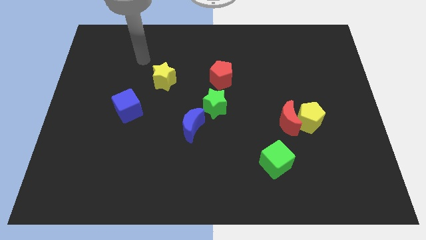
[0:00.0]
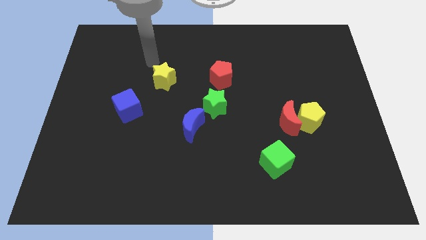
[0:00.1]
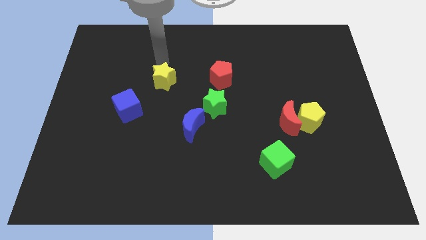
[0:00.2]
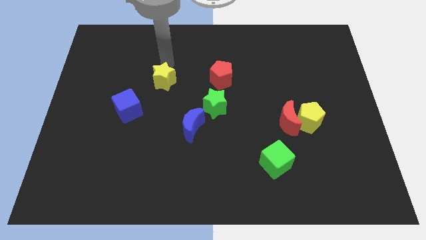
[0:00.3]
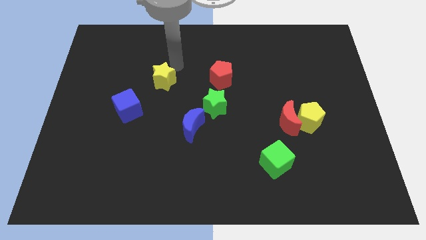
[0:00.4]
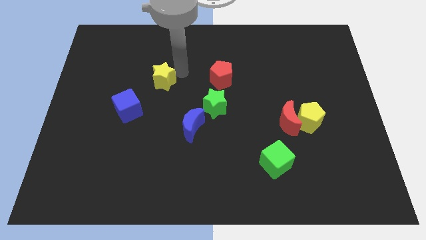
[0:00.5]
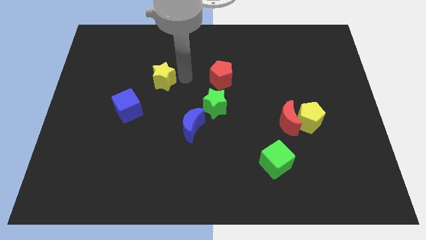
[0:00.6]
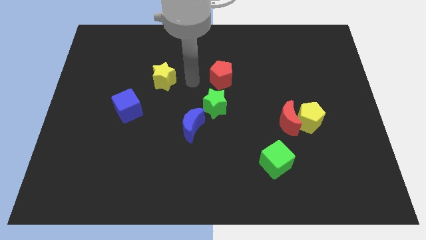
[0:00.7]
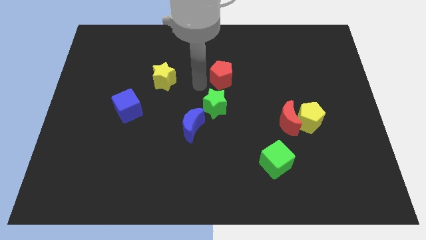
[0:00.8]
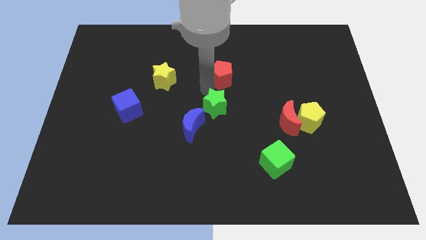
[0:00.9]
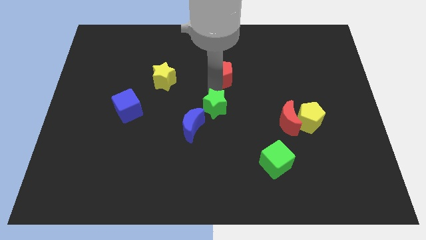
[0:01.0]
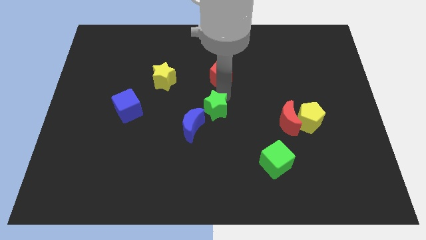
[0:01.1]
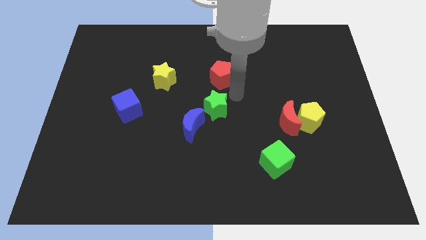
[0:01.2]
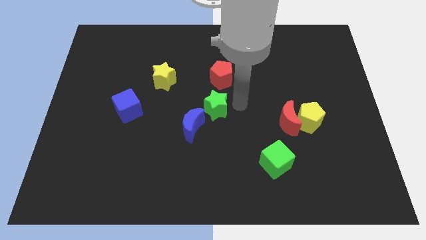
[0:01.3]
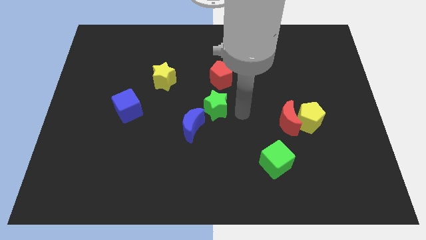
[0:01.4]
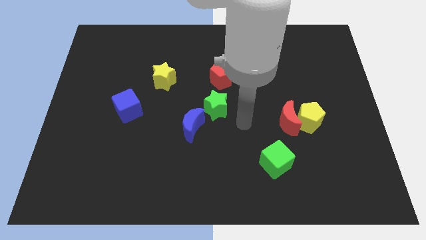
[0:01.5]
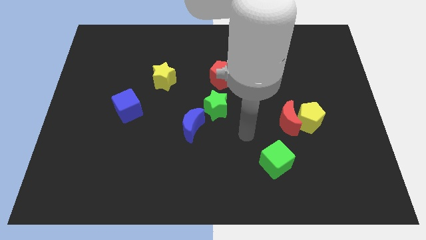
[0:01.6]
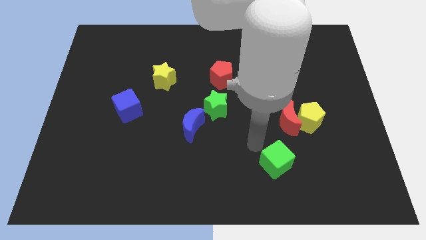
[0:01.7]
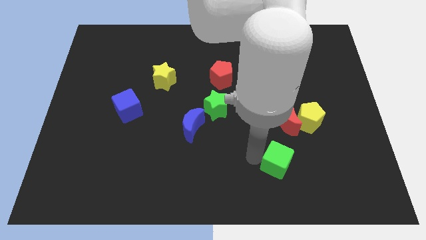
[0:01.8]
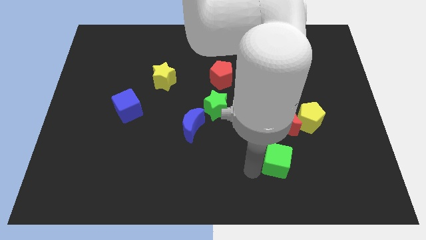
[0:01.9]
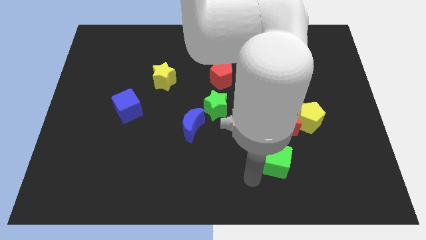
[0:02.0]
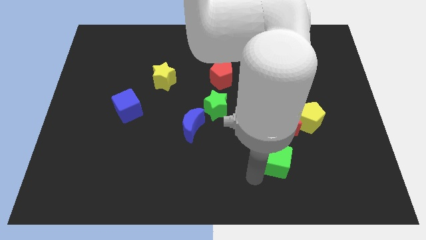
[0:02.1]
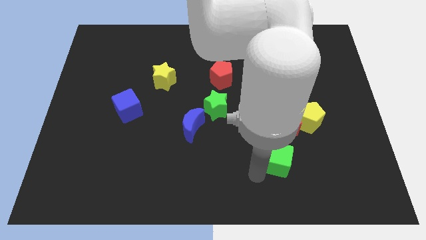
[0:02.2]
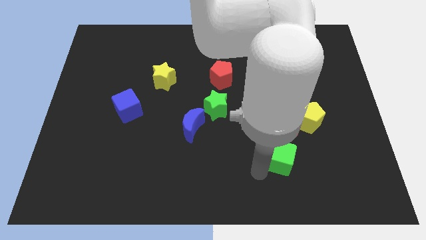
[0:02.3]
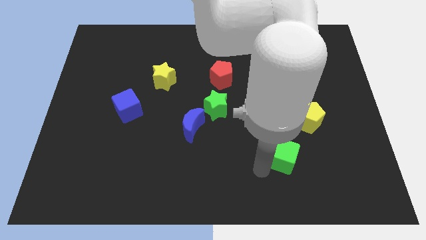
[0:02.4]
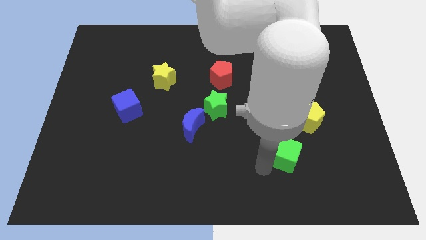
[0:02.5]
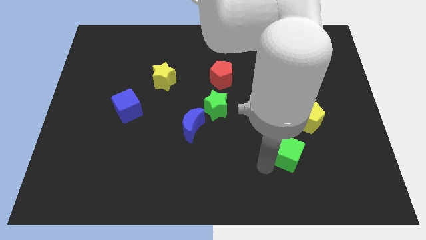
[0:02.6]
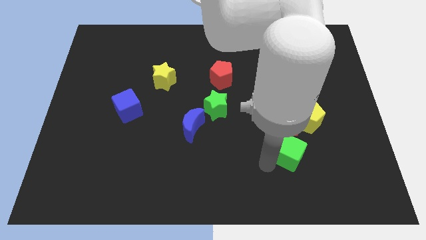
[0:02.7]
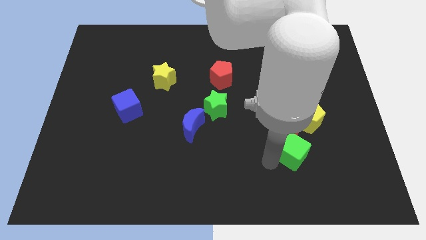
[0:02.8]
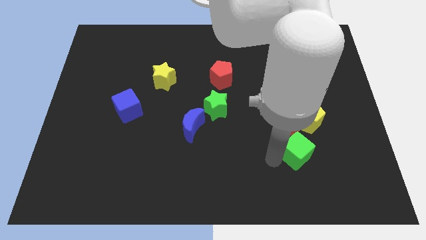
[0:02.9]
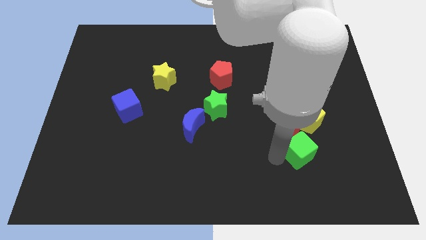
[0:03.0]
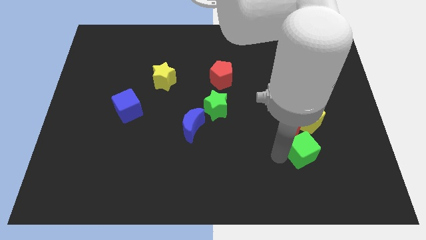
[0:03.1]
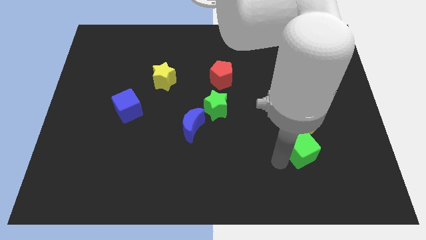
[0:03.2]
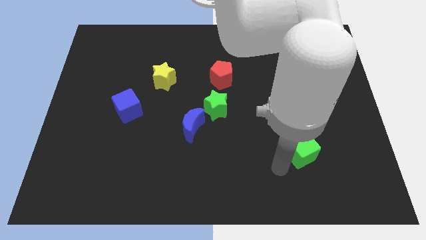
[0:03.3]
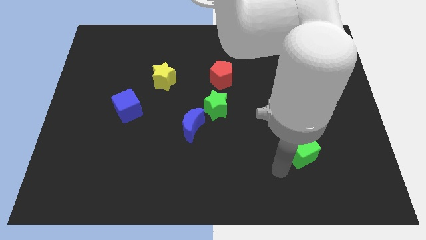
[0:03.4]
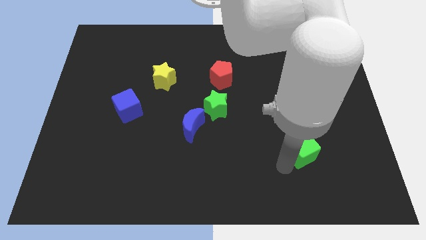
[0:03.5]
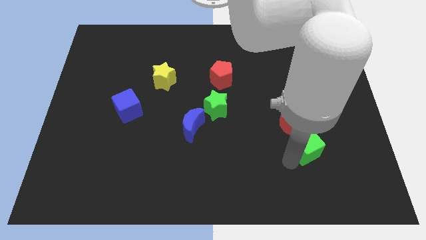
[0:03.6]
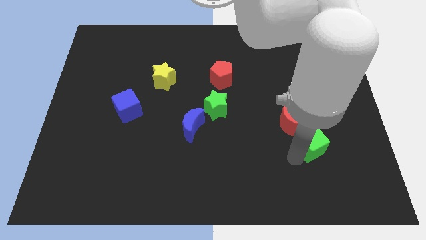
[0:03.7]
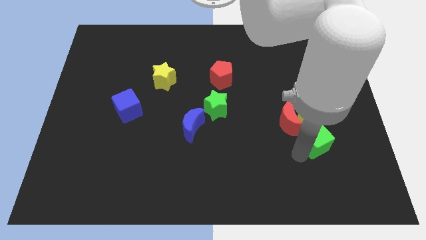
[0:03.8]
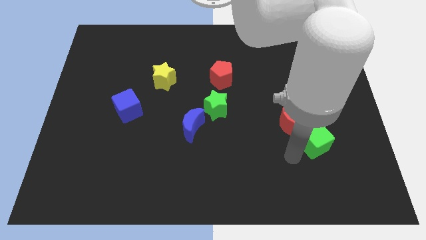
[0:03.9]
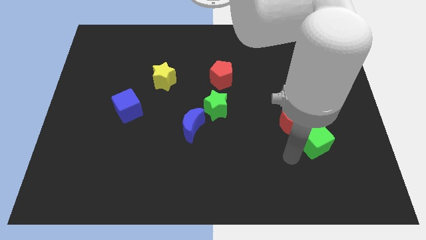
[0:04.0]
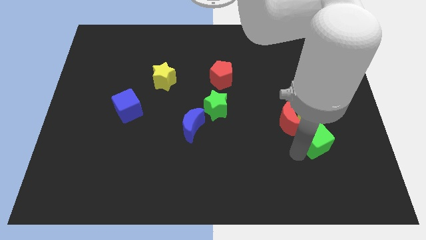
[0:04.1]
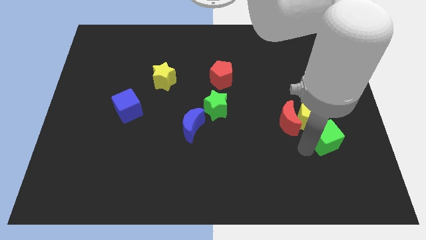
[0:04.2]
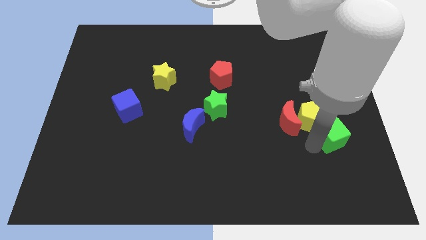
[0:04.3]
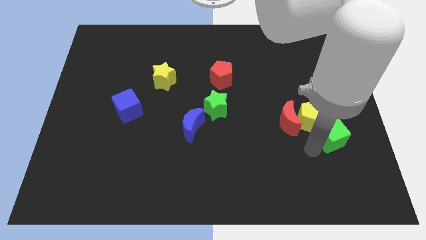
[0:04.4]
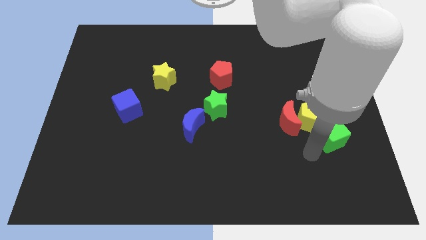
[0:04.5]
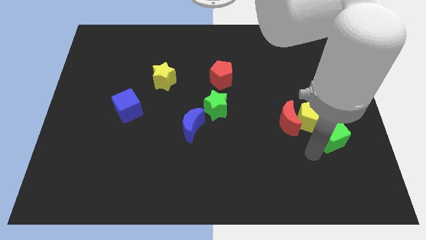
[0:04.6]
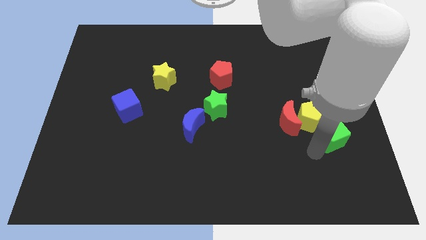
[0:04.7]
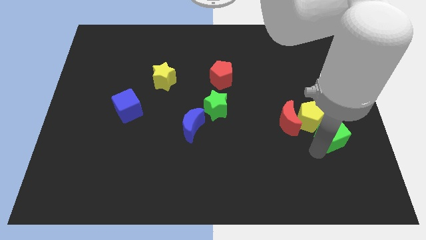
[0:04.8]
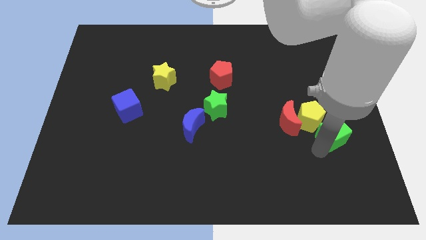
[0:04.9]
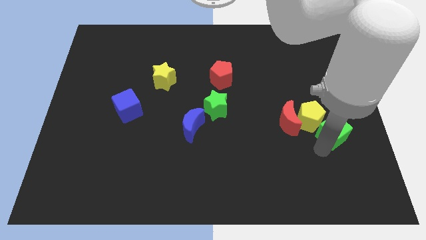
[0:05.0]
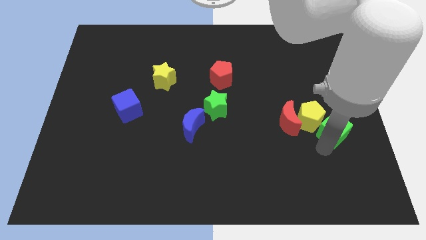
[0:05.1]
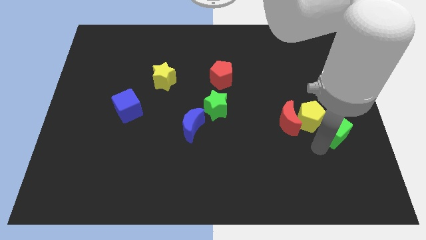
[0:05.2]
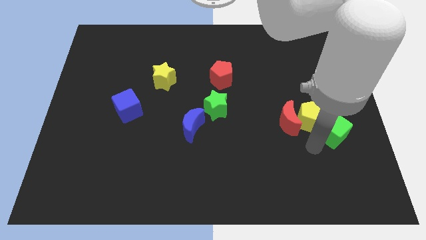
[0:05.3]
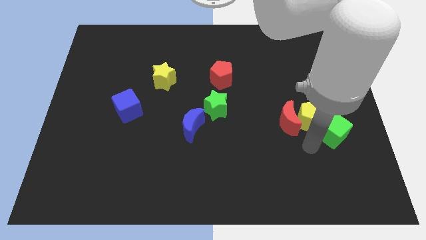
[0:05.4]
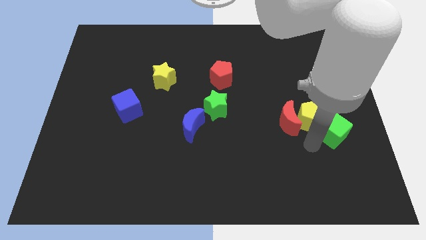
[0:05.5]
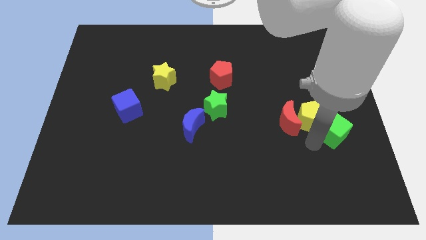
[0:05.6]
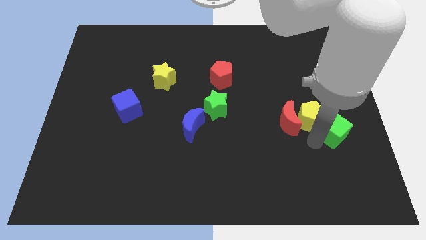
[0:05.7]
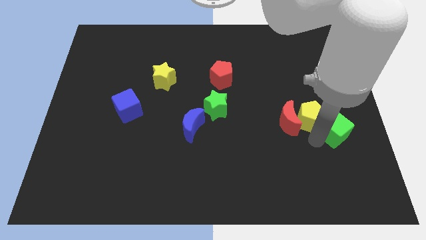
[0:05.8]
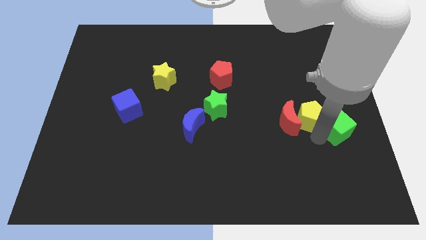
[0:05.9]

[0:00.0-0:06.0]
push the green cube to the right side of the board

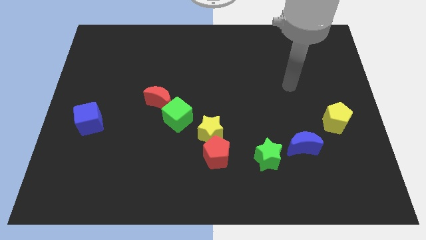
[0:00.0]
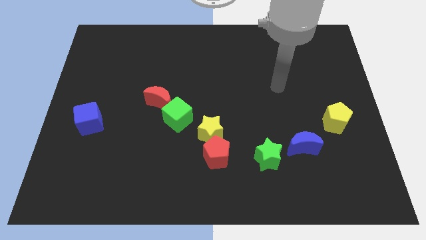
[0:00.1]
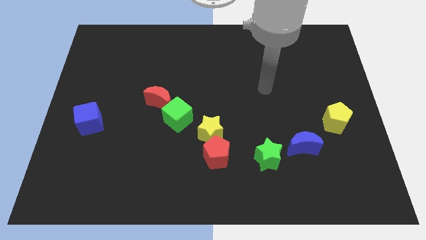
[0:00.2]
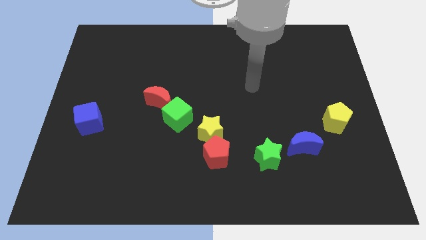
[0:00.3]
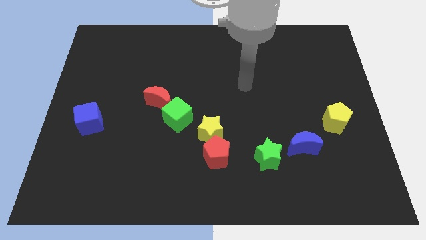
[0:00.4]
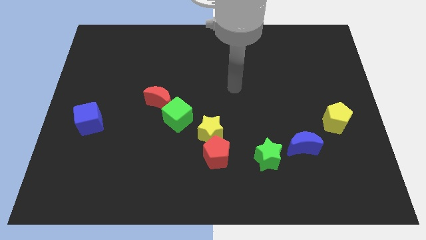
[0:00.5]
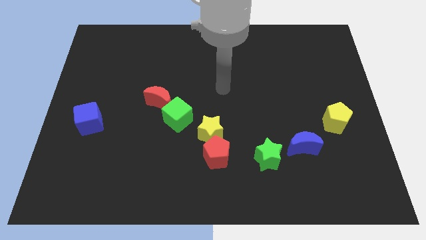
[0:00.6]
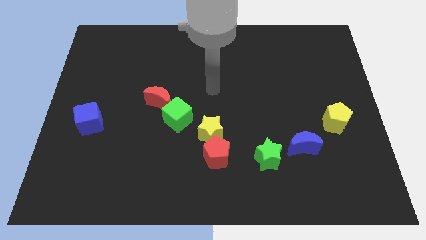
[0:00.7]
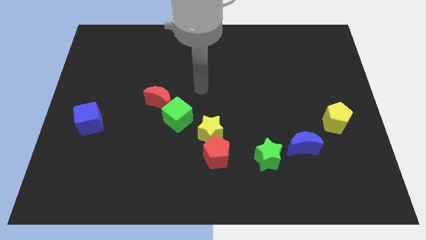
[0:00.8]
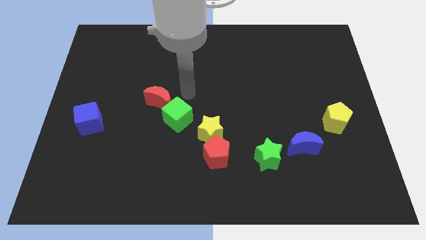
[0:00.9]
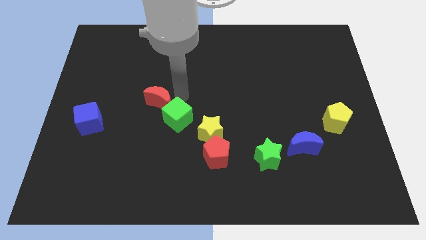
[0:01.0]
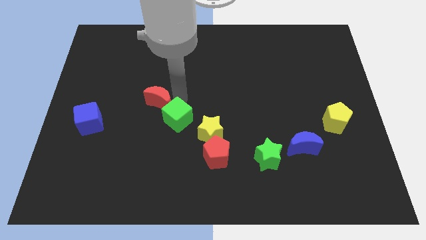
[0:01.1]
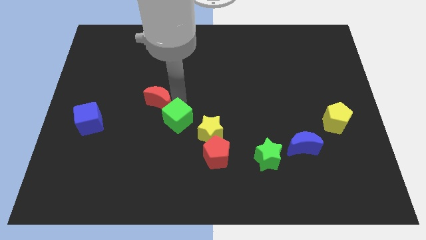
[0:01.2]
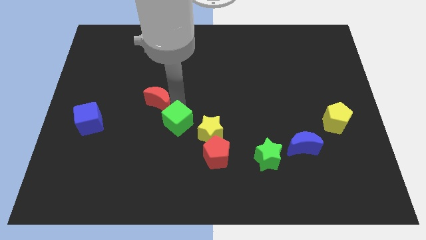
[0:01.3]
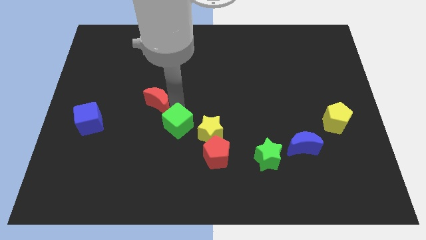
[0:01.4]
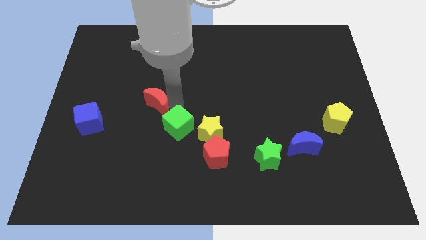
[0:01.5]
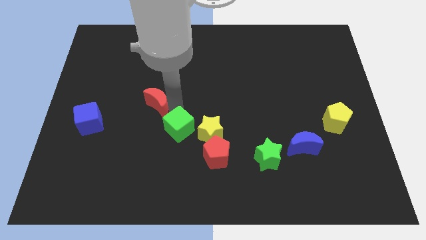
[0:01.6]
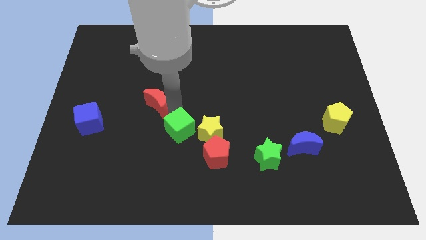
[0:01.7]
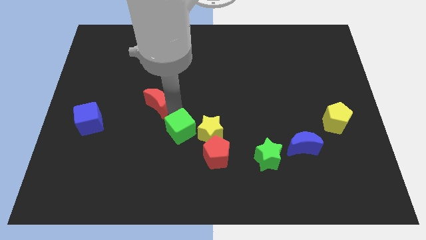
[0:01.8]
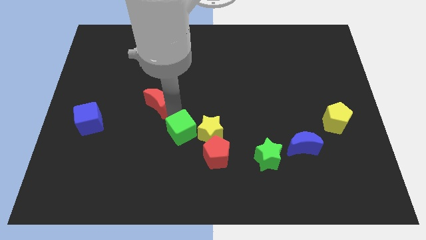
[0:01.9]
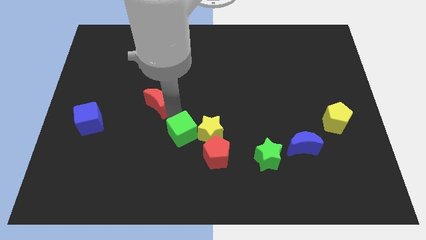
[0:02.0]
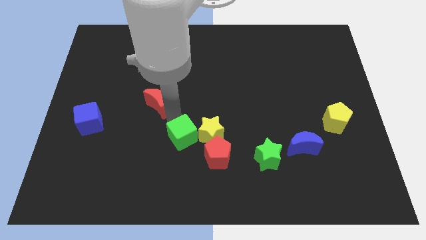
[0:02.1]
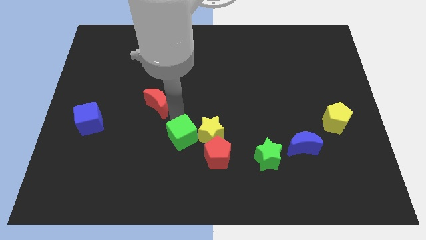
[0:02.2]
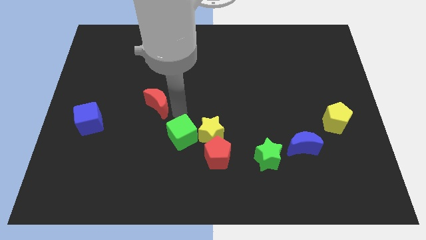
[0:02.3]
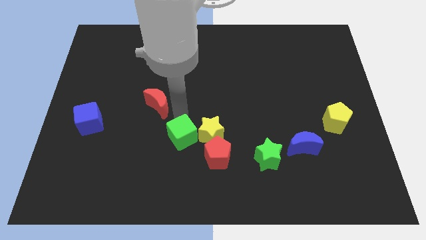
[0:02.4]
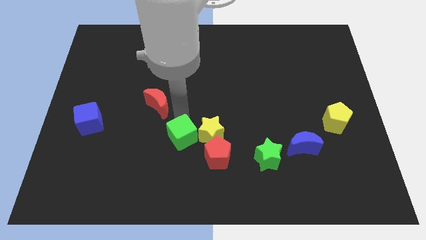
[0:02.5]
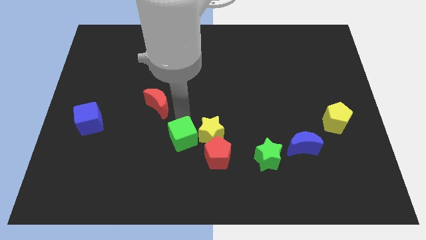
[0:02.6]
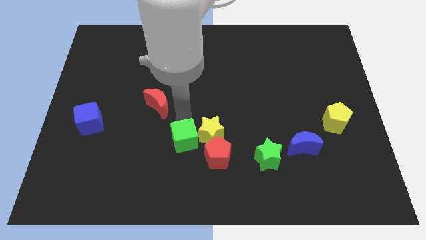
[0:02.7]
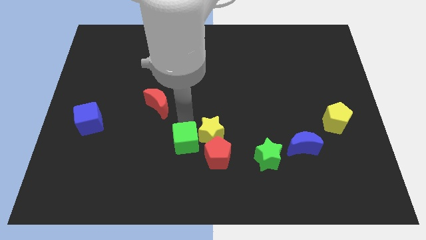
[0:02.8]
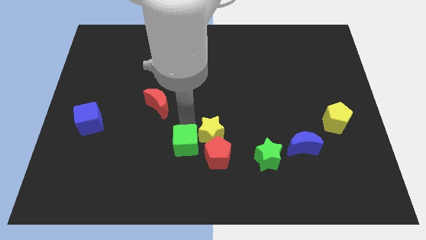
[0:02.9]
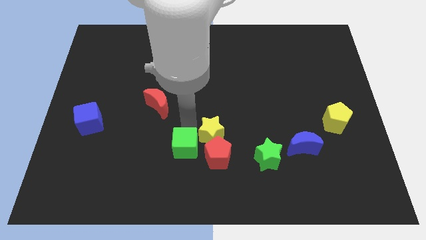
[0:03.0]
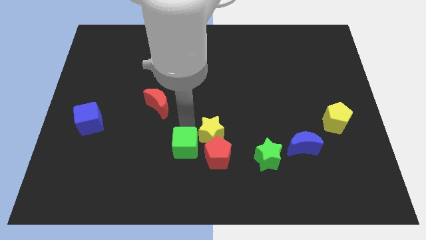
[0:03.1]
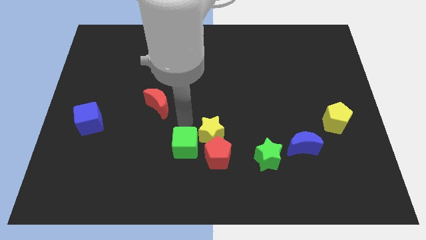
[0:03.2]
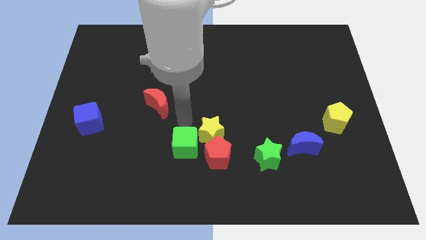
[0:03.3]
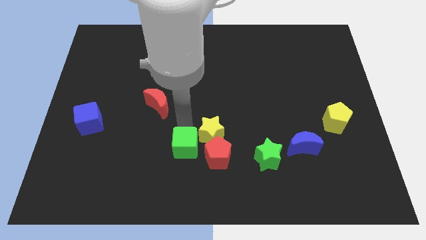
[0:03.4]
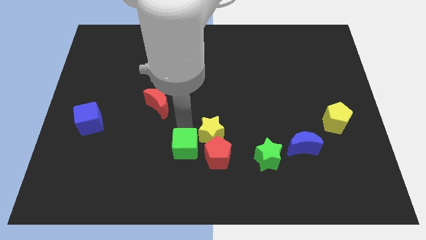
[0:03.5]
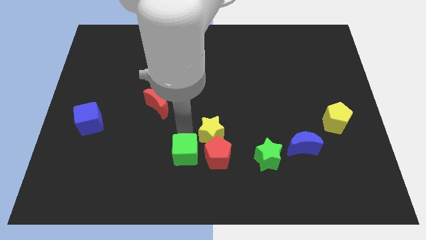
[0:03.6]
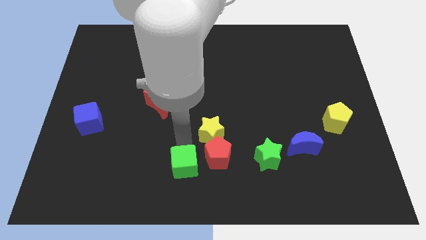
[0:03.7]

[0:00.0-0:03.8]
slide the green cube to the bottom
